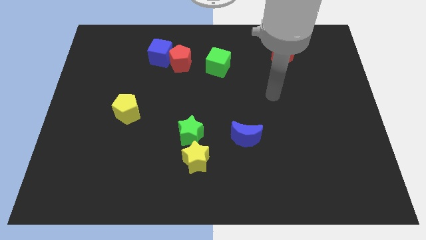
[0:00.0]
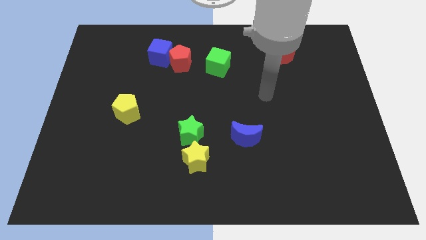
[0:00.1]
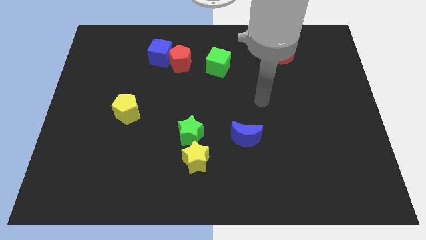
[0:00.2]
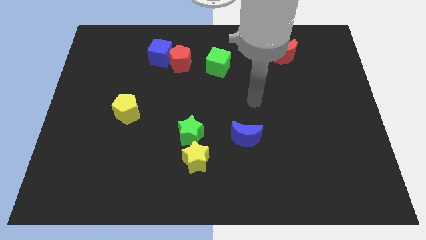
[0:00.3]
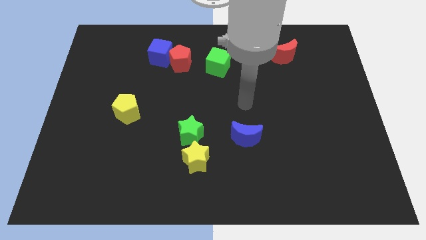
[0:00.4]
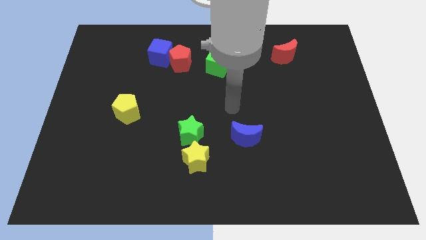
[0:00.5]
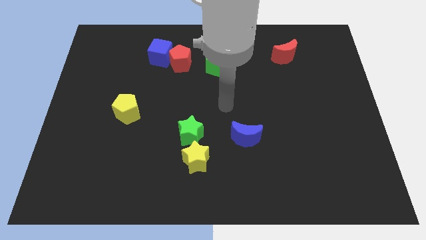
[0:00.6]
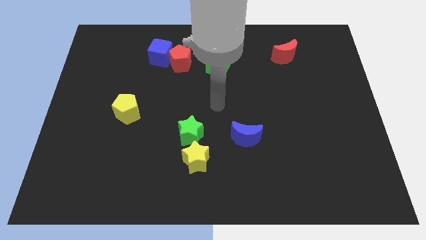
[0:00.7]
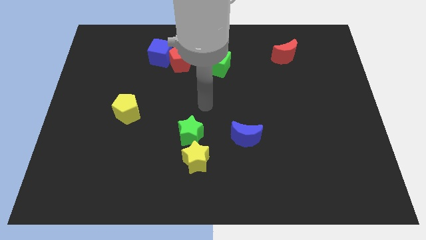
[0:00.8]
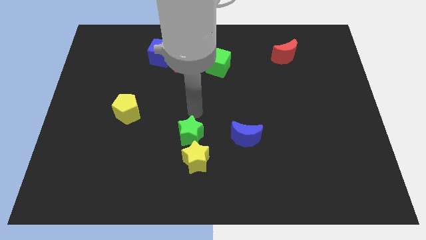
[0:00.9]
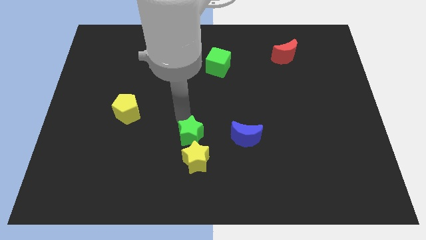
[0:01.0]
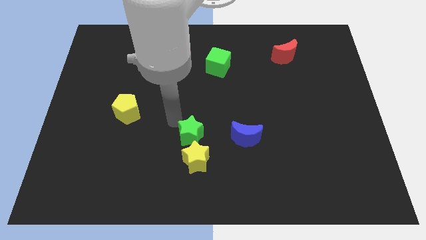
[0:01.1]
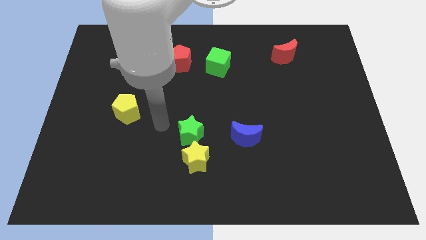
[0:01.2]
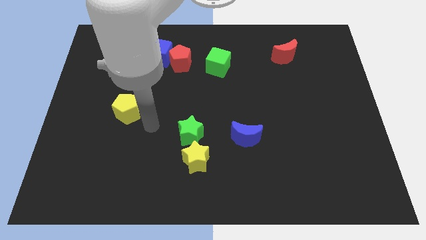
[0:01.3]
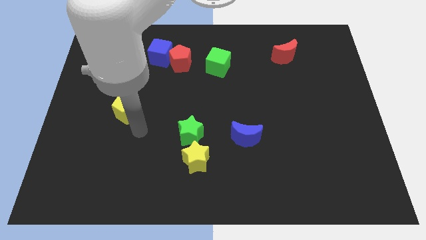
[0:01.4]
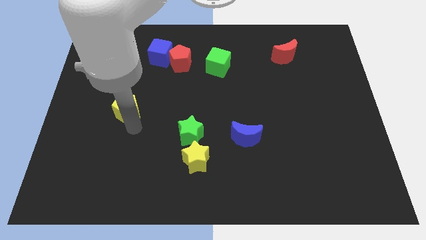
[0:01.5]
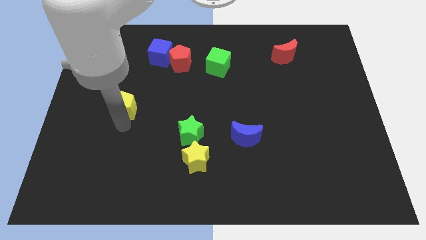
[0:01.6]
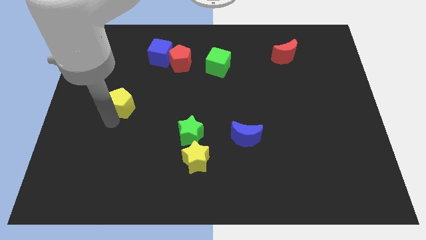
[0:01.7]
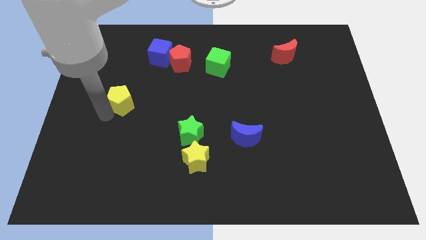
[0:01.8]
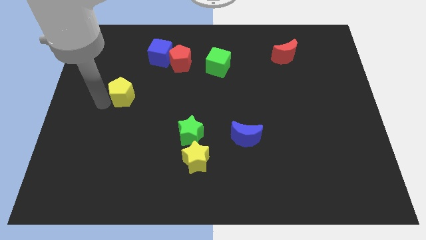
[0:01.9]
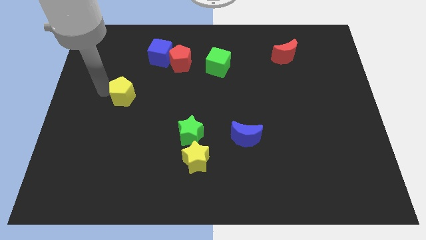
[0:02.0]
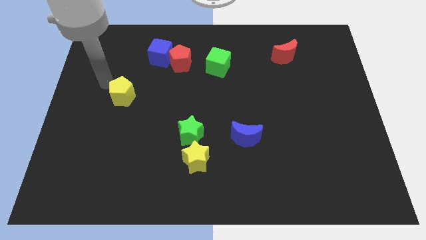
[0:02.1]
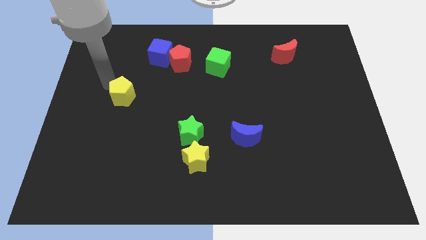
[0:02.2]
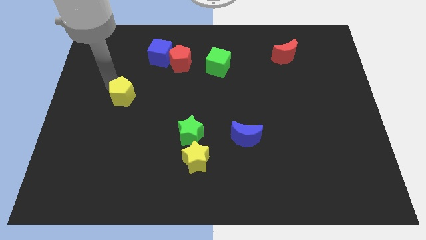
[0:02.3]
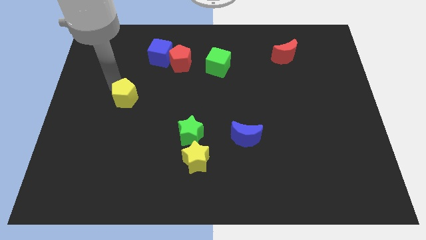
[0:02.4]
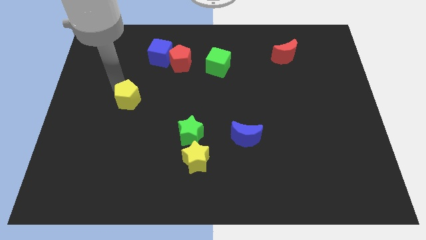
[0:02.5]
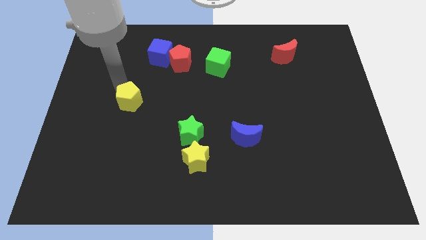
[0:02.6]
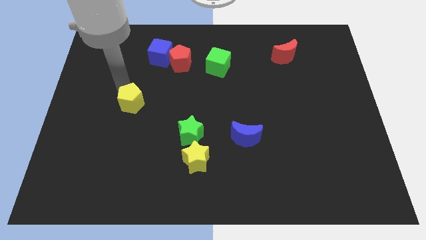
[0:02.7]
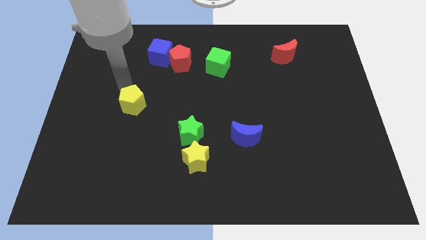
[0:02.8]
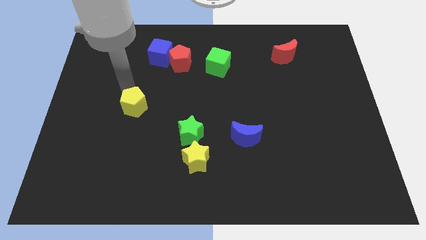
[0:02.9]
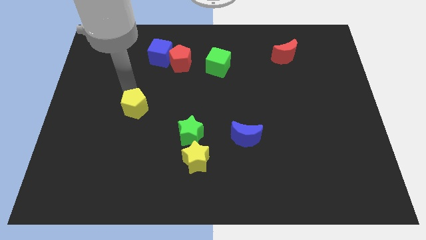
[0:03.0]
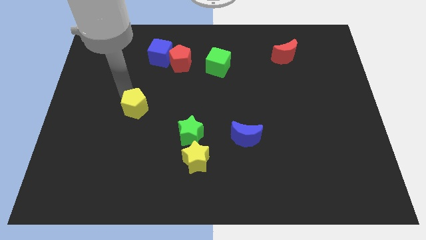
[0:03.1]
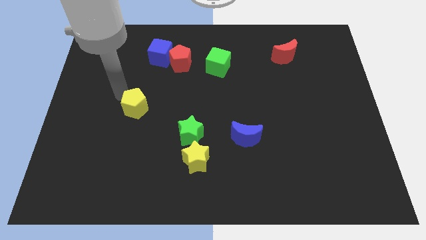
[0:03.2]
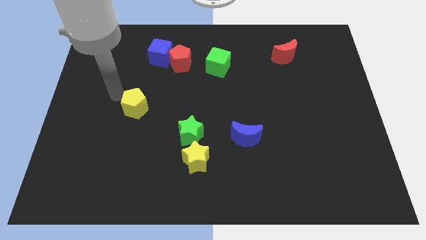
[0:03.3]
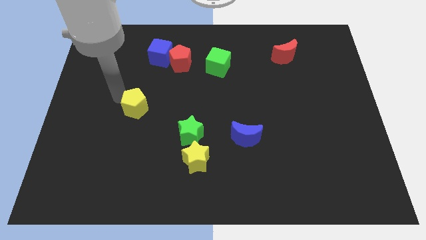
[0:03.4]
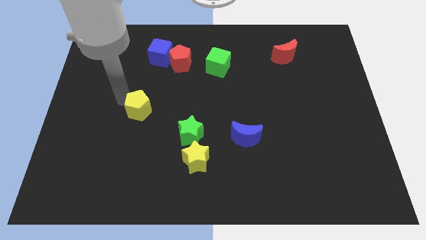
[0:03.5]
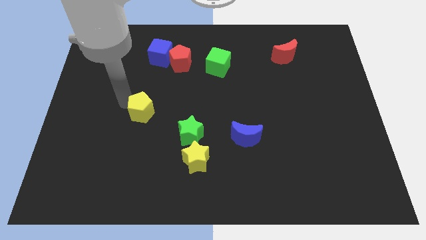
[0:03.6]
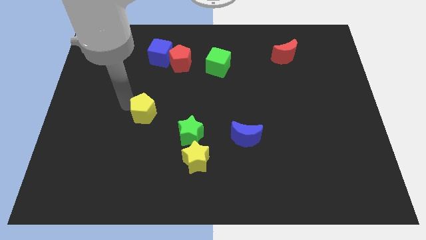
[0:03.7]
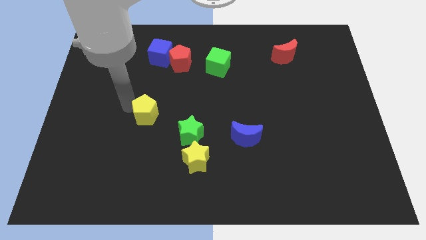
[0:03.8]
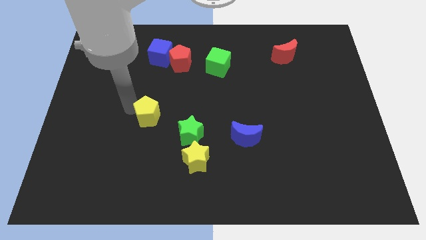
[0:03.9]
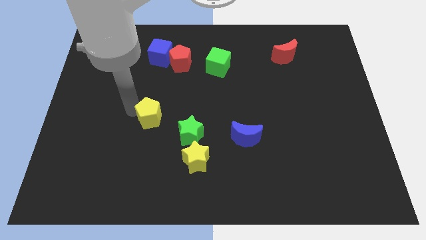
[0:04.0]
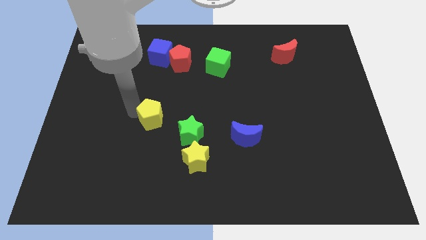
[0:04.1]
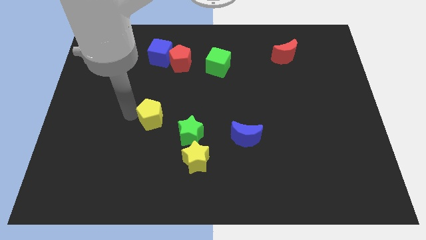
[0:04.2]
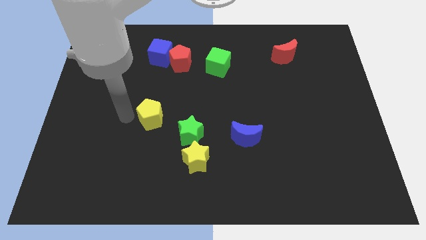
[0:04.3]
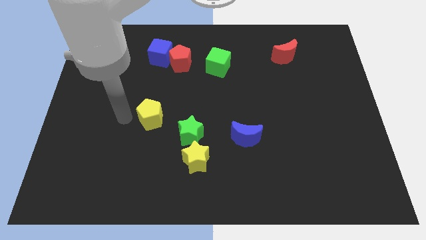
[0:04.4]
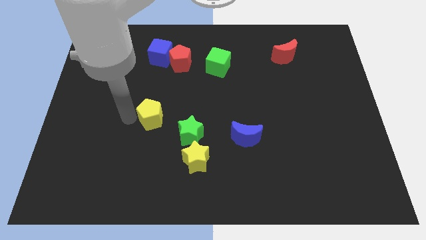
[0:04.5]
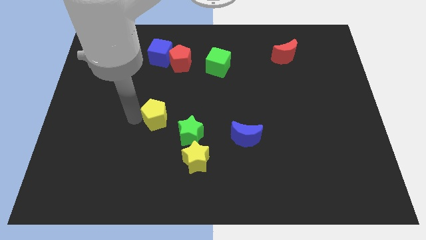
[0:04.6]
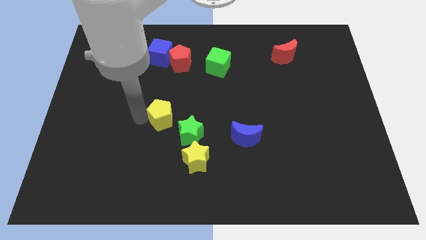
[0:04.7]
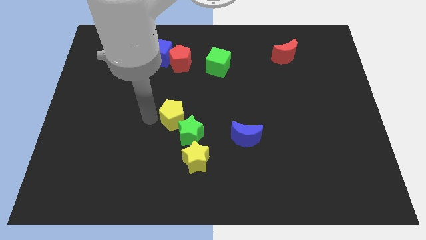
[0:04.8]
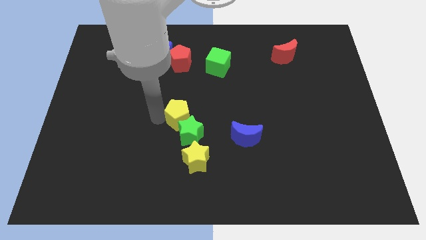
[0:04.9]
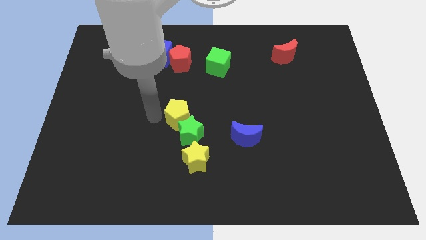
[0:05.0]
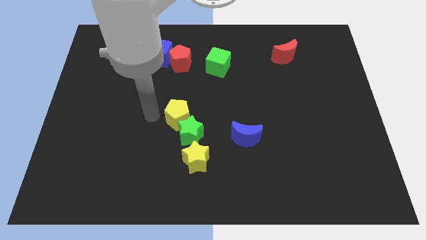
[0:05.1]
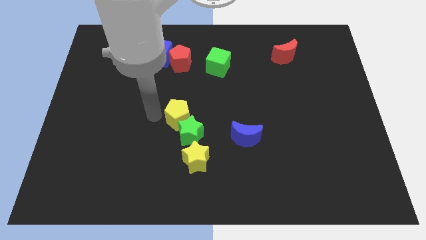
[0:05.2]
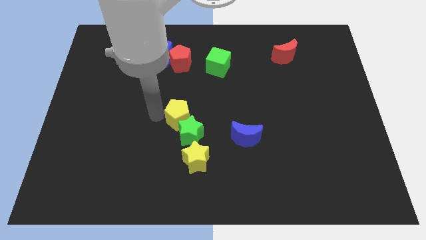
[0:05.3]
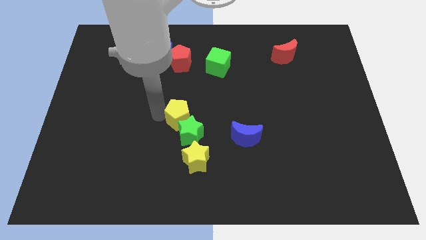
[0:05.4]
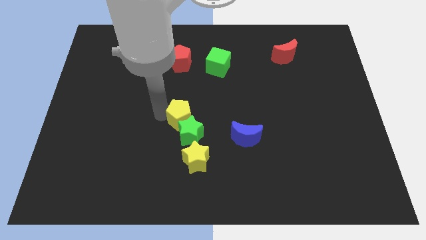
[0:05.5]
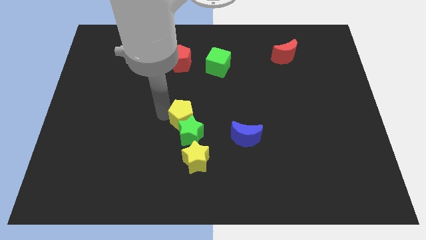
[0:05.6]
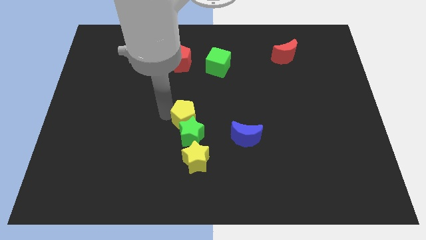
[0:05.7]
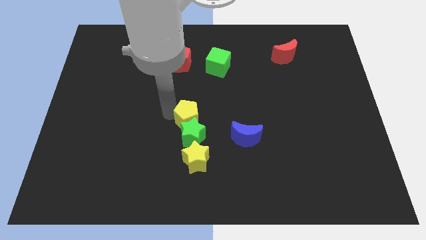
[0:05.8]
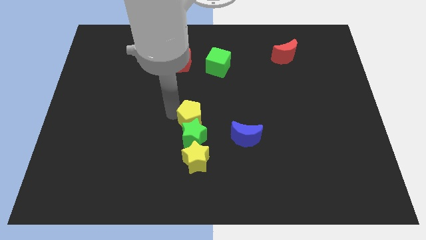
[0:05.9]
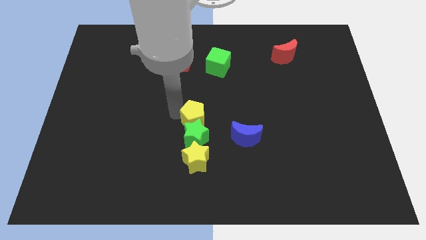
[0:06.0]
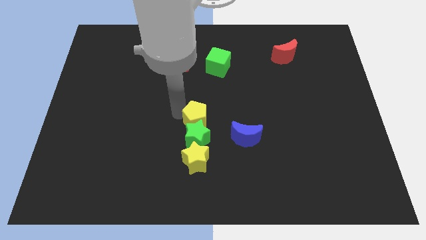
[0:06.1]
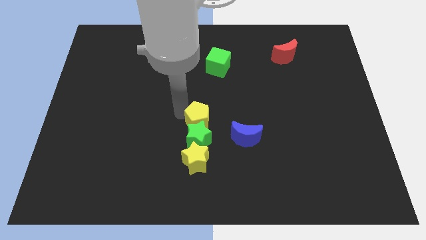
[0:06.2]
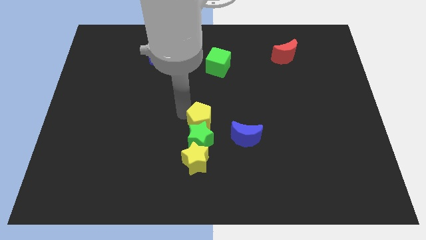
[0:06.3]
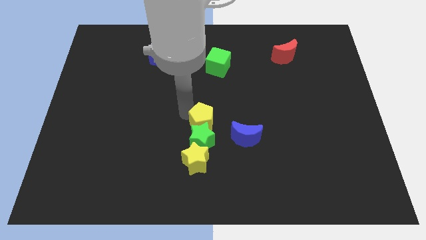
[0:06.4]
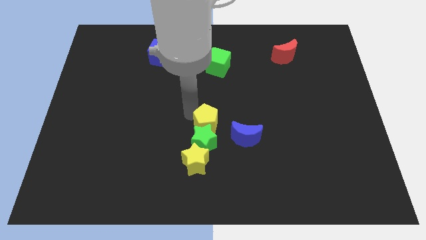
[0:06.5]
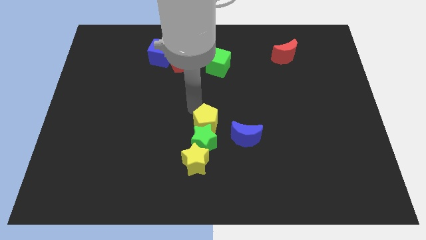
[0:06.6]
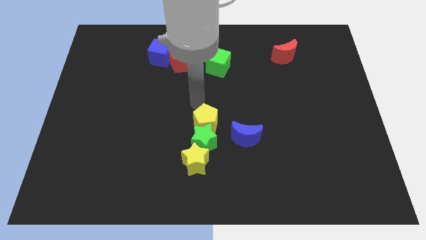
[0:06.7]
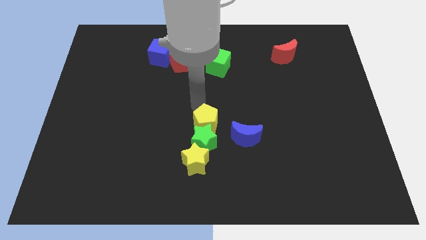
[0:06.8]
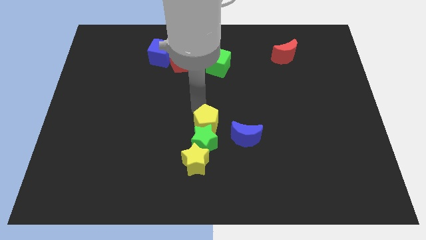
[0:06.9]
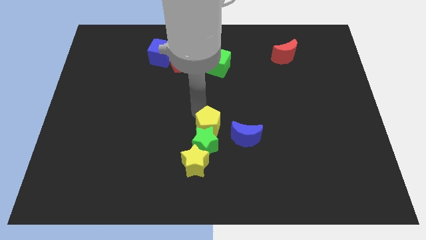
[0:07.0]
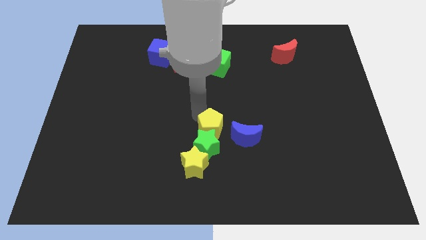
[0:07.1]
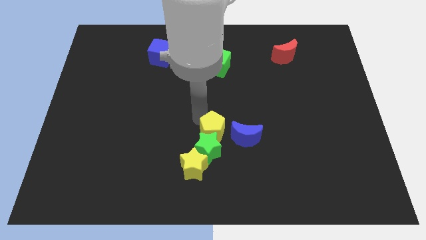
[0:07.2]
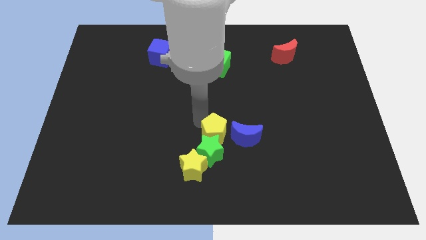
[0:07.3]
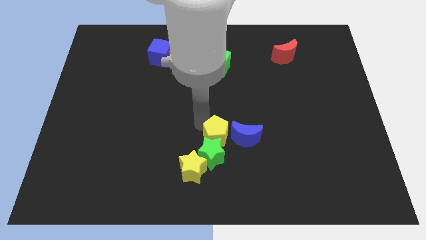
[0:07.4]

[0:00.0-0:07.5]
put the yellow pentagon to the bottom left side of the blue moon

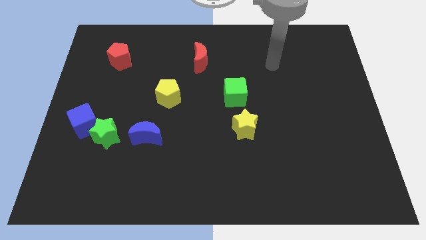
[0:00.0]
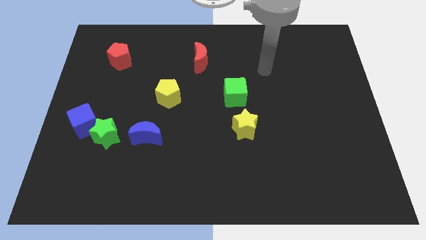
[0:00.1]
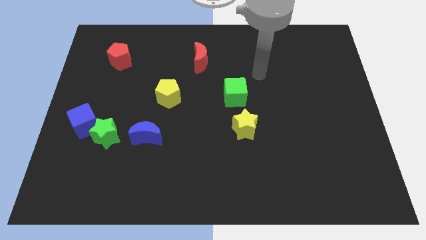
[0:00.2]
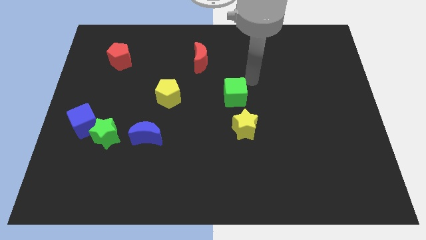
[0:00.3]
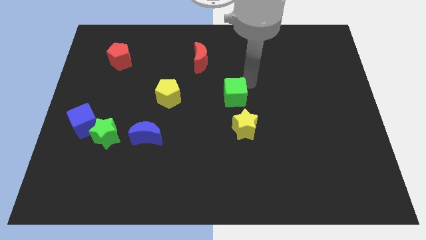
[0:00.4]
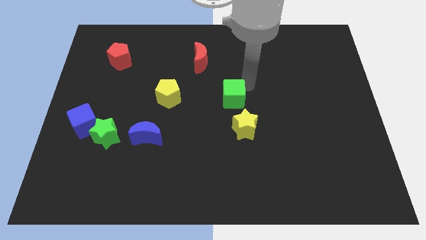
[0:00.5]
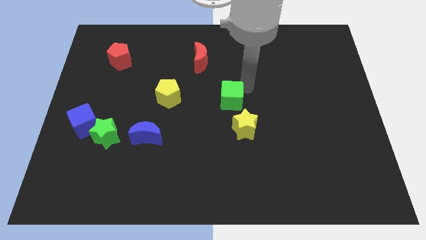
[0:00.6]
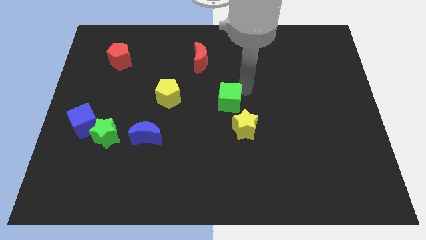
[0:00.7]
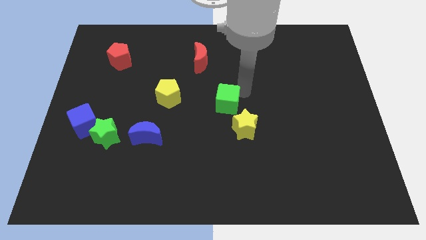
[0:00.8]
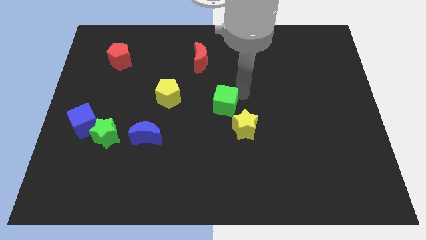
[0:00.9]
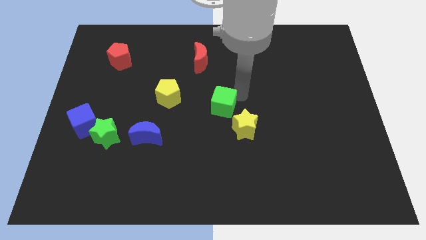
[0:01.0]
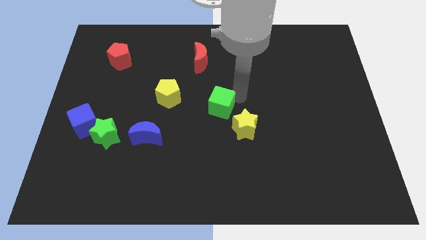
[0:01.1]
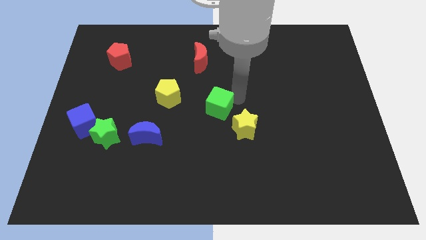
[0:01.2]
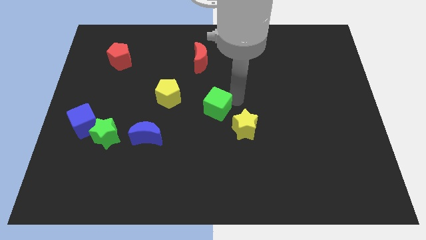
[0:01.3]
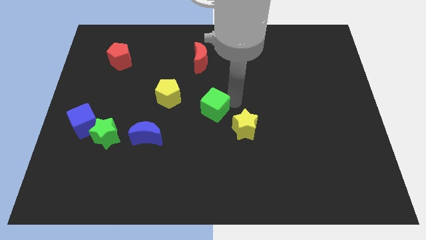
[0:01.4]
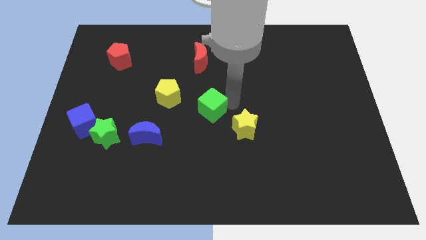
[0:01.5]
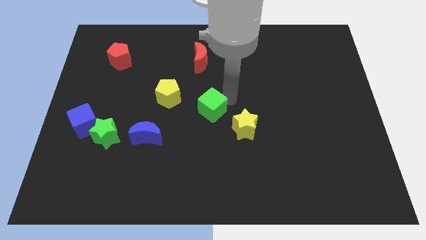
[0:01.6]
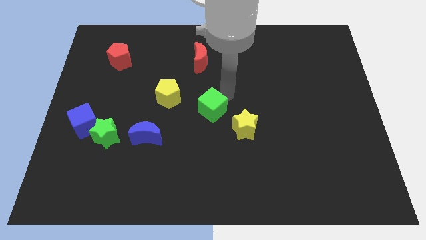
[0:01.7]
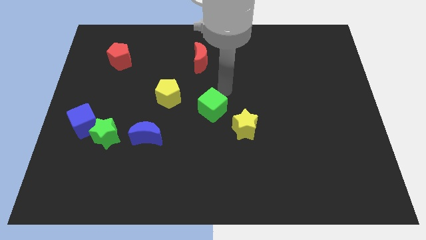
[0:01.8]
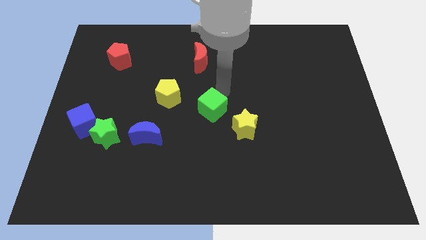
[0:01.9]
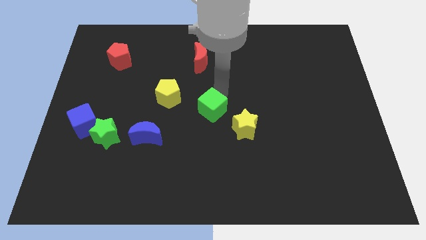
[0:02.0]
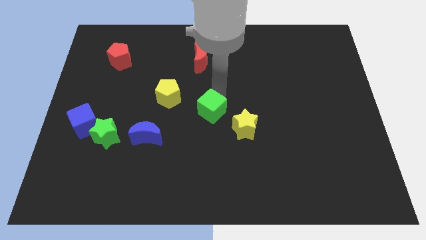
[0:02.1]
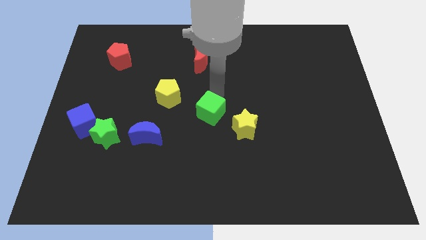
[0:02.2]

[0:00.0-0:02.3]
push the green cube just left of the yellow star
